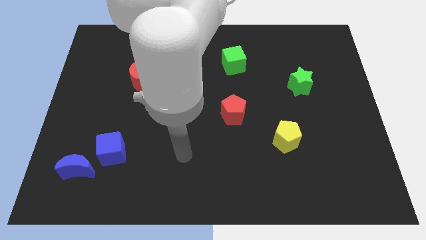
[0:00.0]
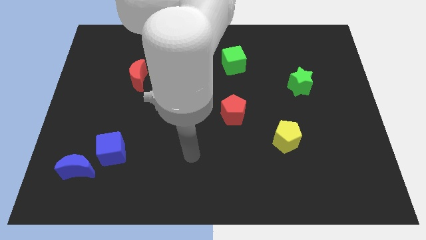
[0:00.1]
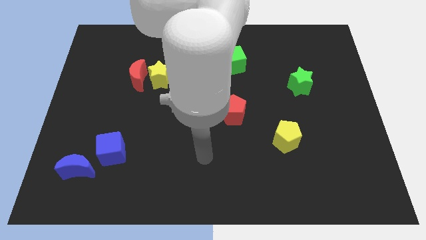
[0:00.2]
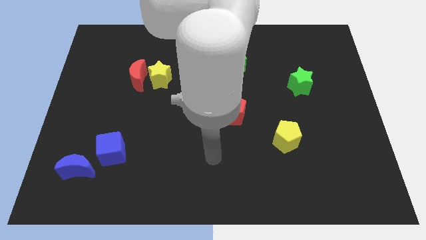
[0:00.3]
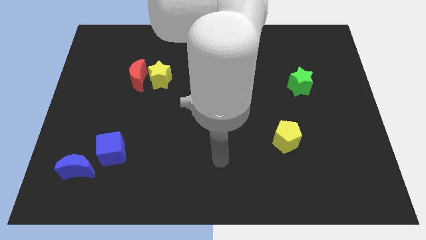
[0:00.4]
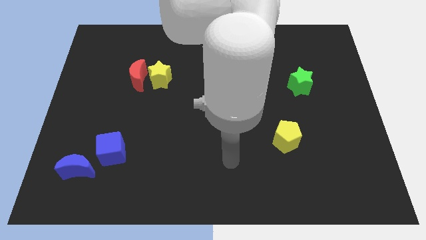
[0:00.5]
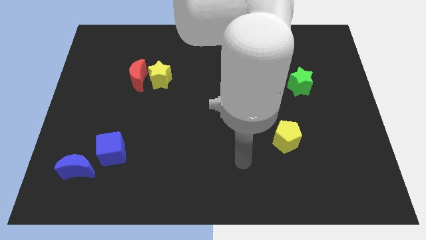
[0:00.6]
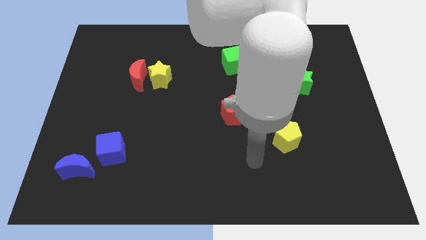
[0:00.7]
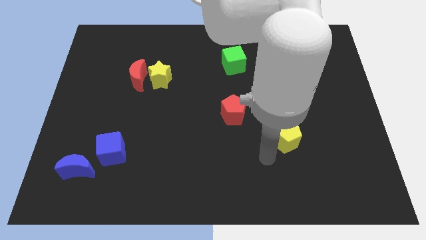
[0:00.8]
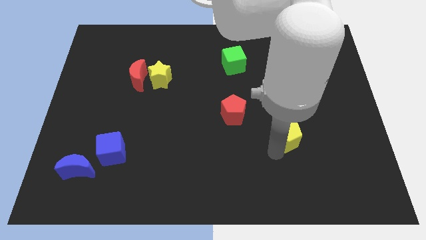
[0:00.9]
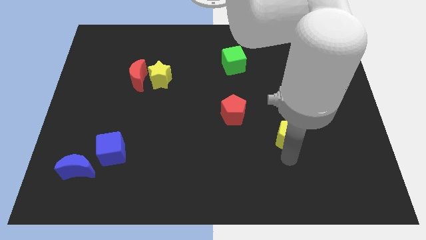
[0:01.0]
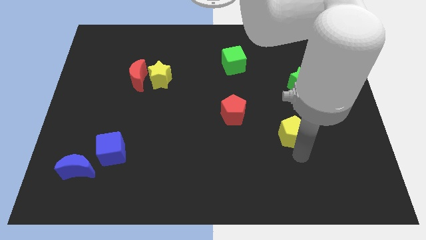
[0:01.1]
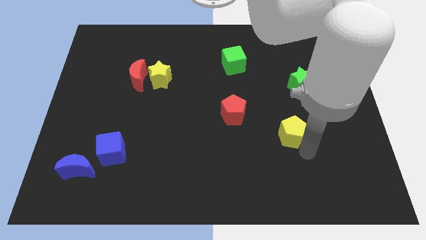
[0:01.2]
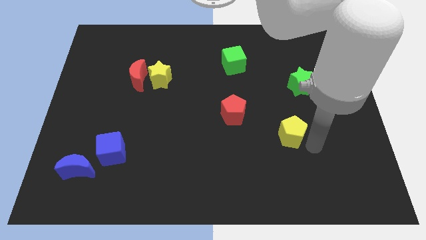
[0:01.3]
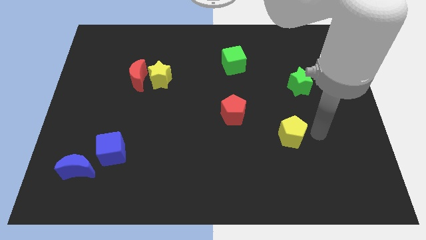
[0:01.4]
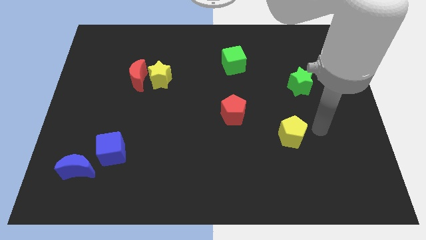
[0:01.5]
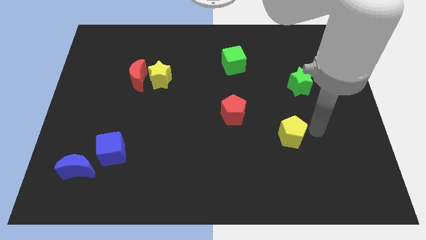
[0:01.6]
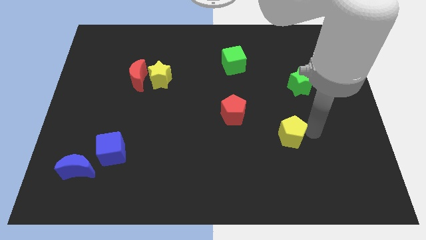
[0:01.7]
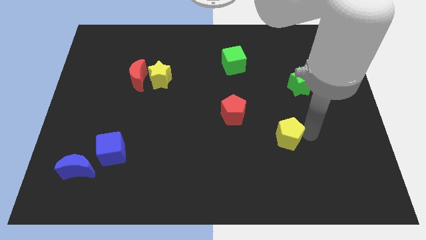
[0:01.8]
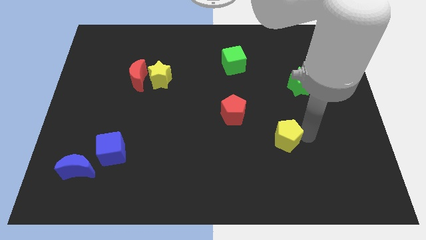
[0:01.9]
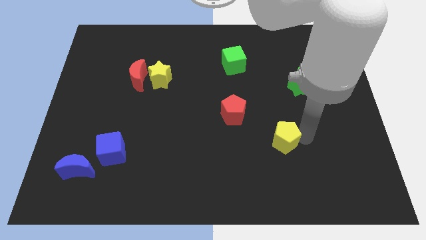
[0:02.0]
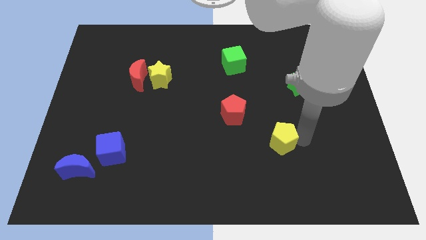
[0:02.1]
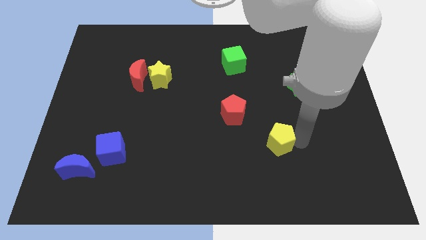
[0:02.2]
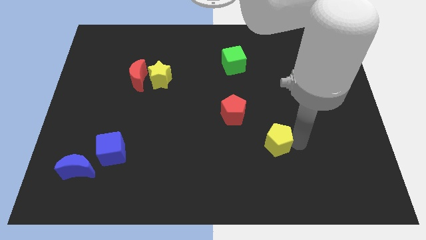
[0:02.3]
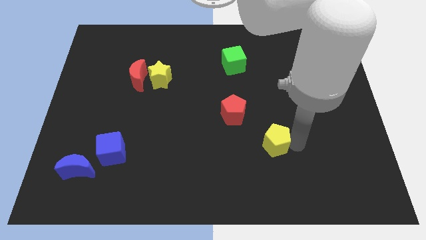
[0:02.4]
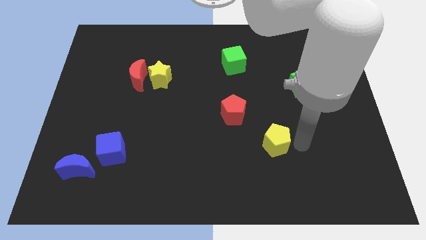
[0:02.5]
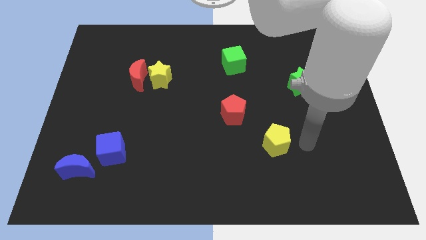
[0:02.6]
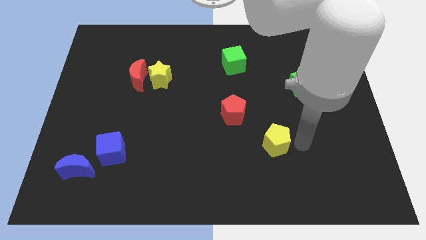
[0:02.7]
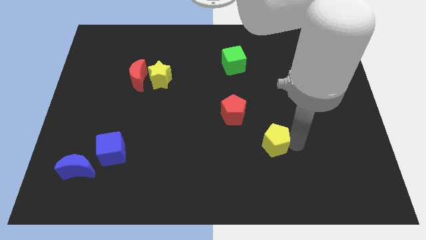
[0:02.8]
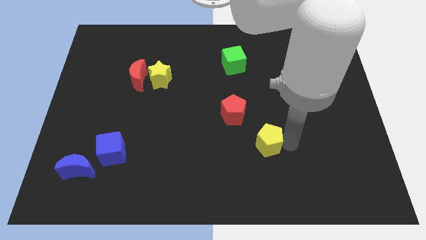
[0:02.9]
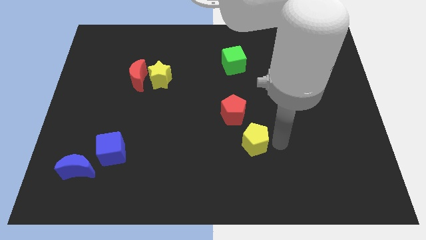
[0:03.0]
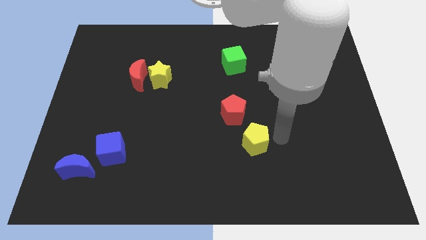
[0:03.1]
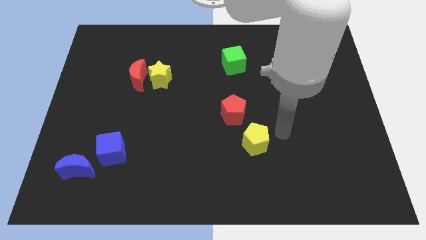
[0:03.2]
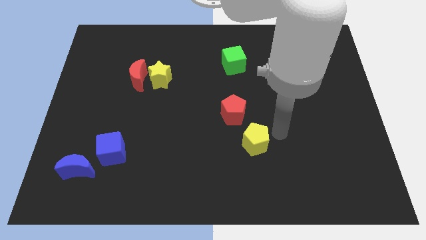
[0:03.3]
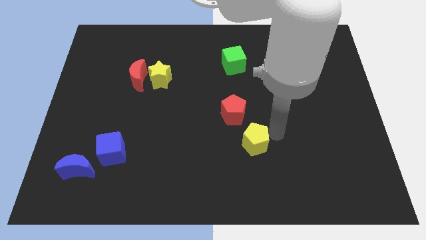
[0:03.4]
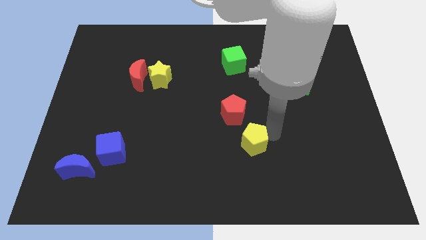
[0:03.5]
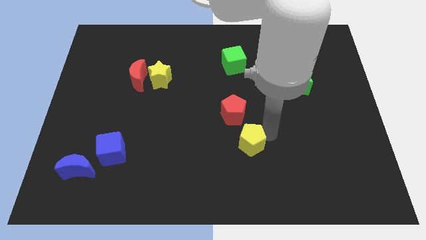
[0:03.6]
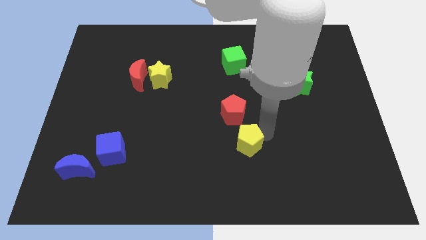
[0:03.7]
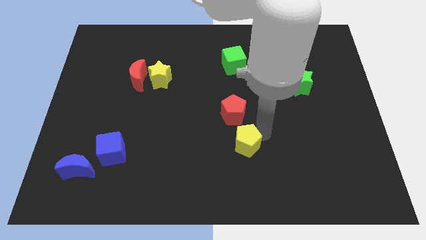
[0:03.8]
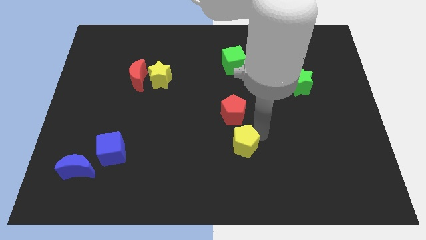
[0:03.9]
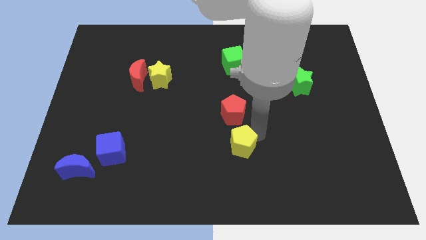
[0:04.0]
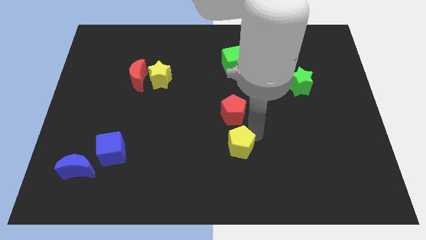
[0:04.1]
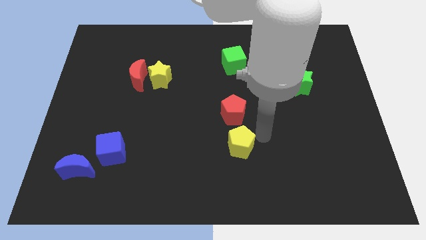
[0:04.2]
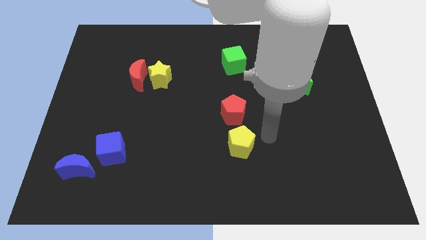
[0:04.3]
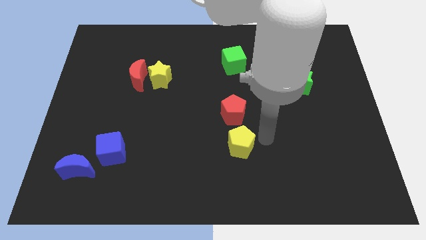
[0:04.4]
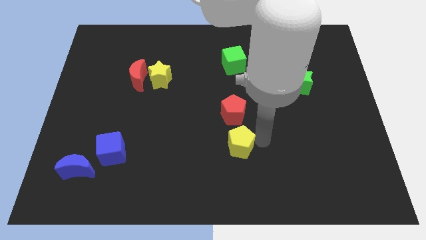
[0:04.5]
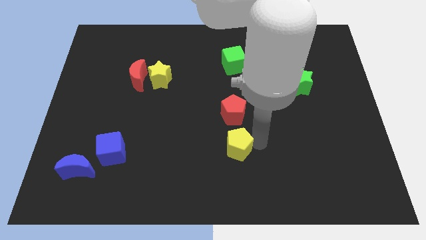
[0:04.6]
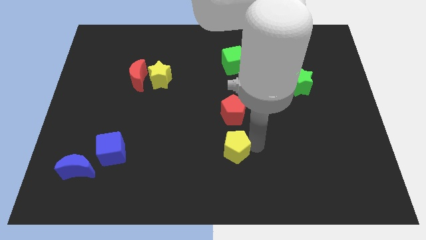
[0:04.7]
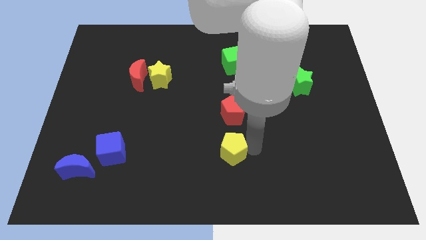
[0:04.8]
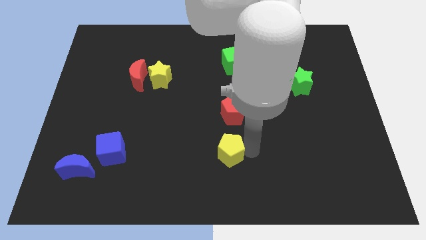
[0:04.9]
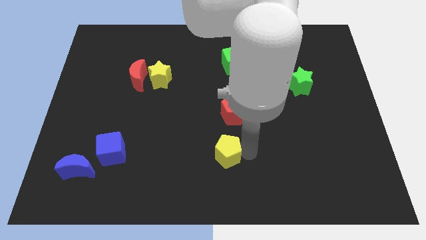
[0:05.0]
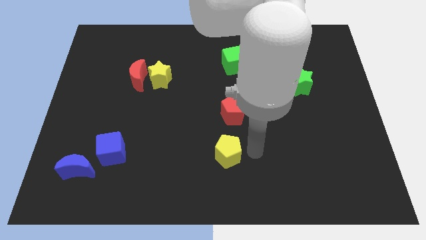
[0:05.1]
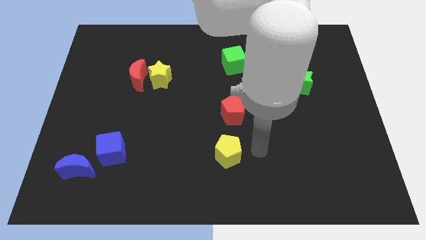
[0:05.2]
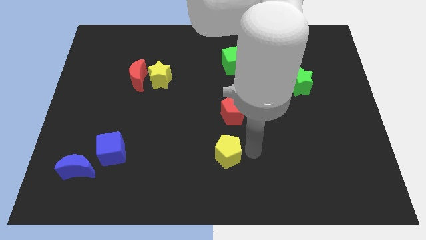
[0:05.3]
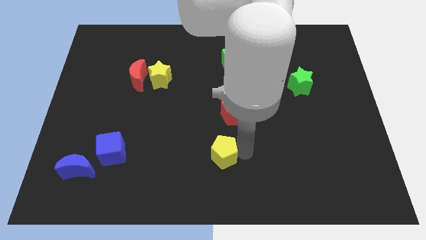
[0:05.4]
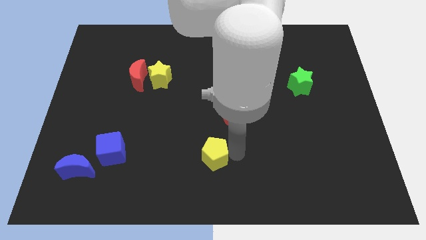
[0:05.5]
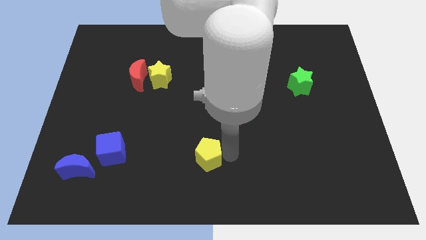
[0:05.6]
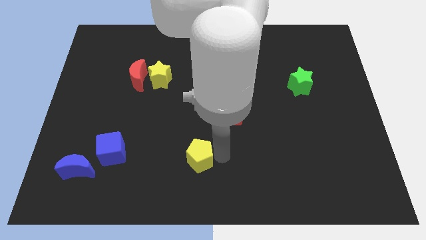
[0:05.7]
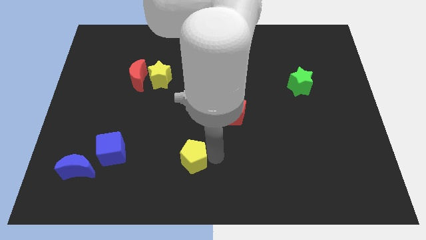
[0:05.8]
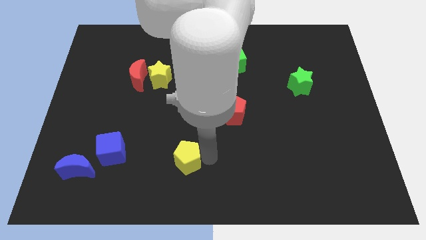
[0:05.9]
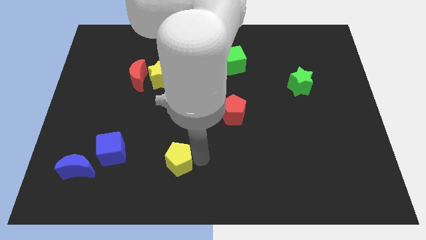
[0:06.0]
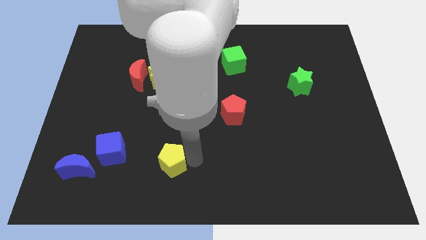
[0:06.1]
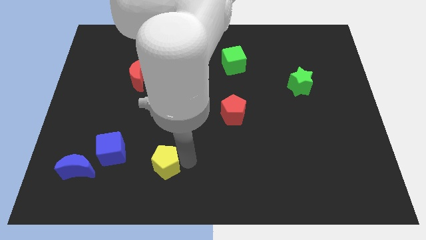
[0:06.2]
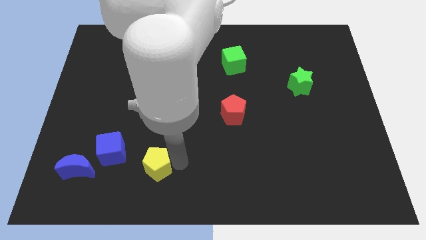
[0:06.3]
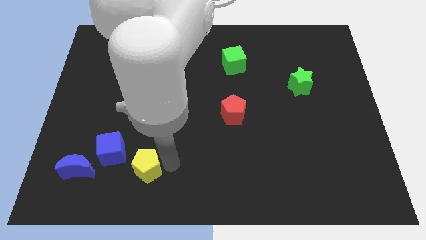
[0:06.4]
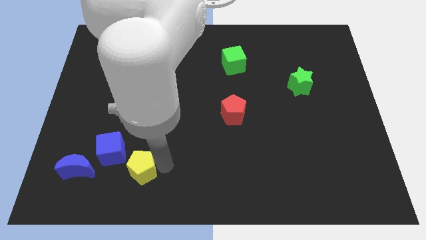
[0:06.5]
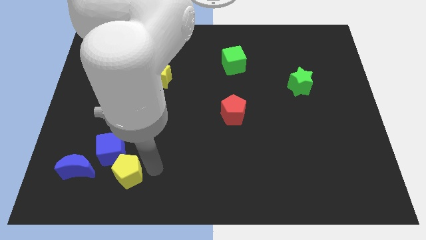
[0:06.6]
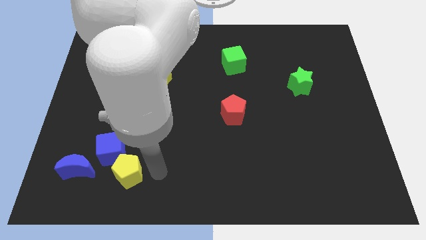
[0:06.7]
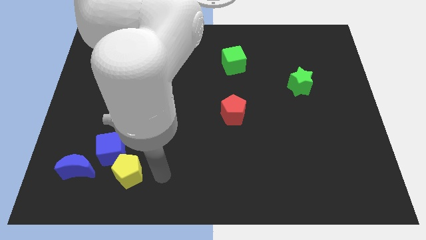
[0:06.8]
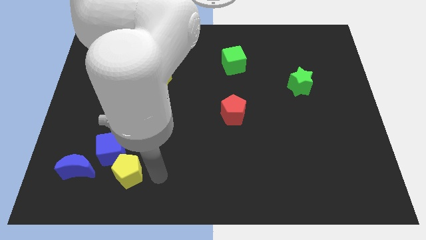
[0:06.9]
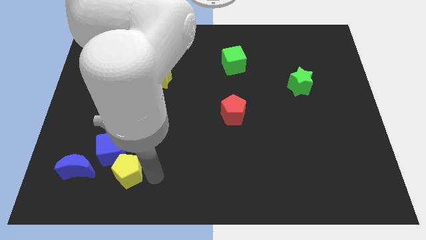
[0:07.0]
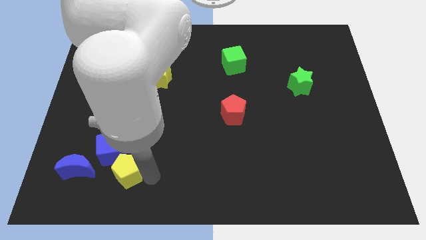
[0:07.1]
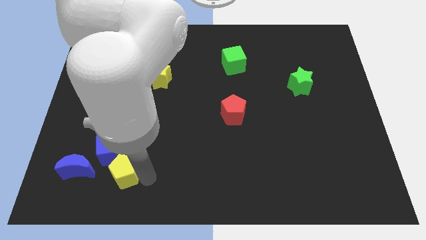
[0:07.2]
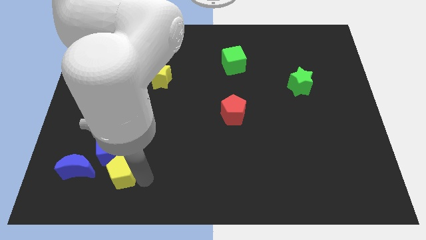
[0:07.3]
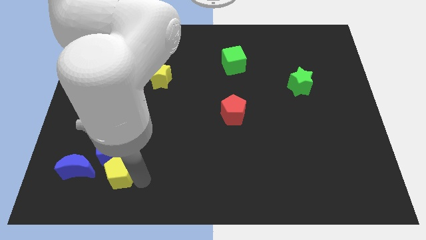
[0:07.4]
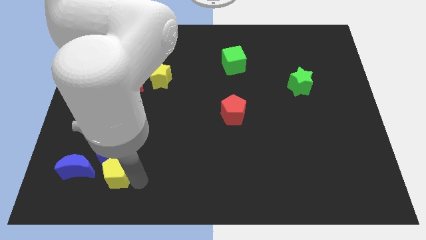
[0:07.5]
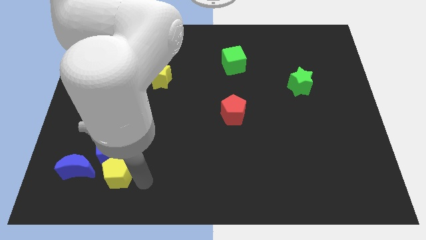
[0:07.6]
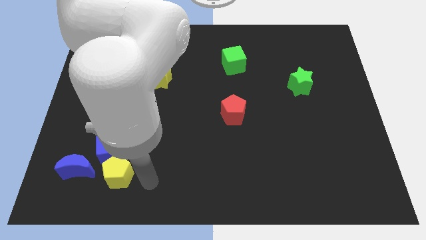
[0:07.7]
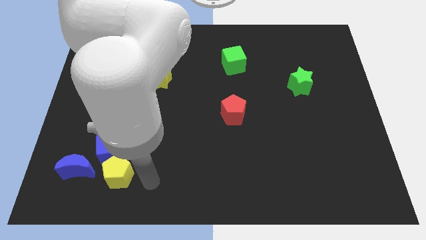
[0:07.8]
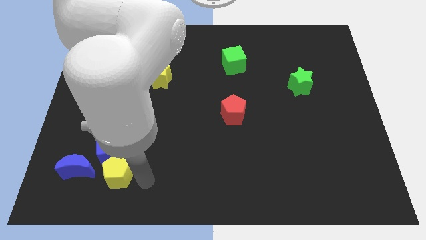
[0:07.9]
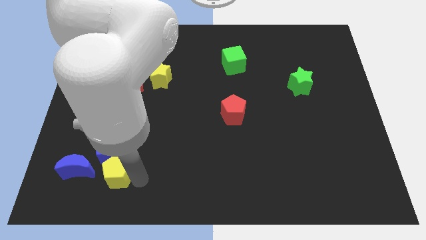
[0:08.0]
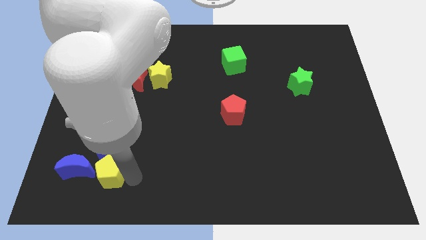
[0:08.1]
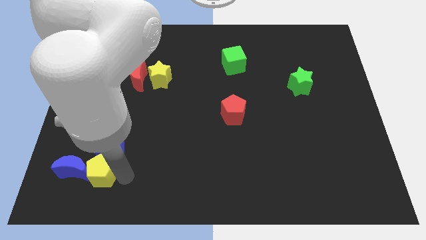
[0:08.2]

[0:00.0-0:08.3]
slide the yellow pentagon to the blue moon
